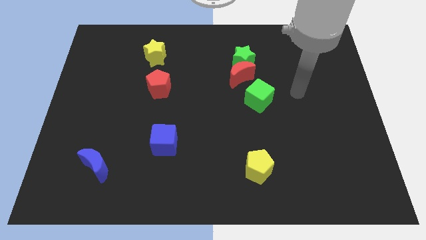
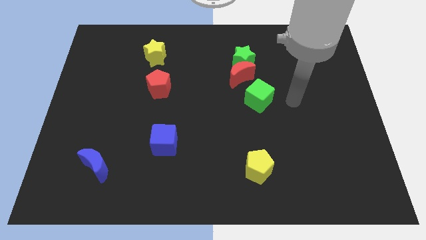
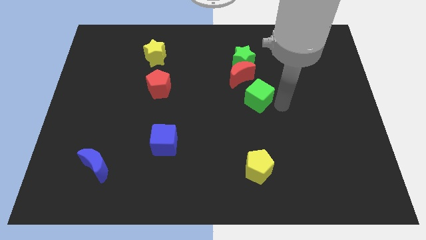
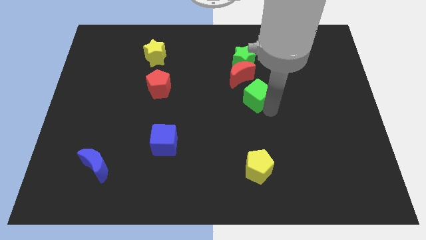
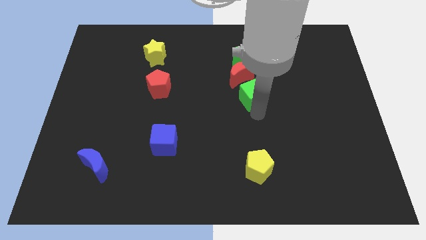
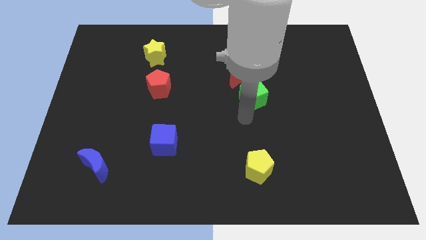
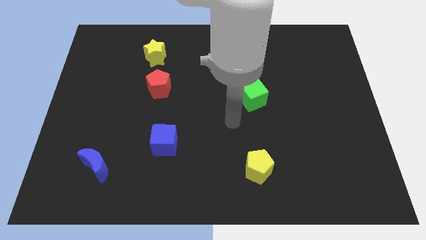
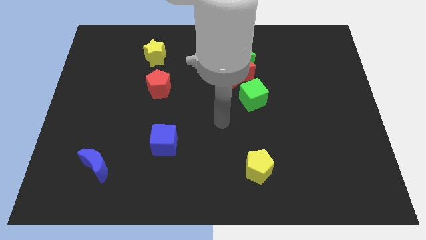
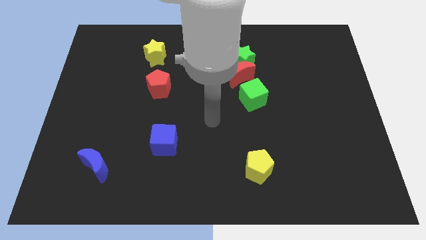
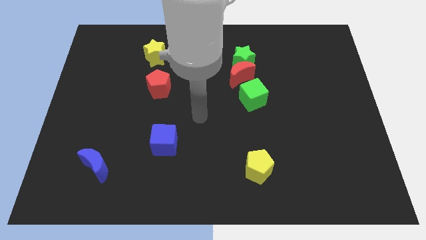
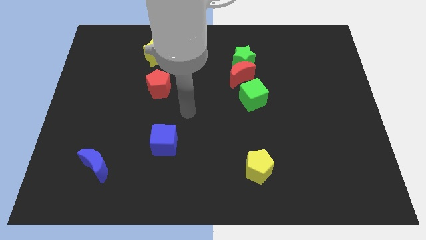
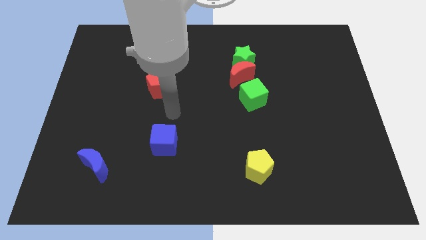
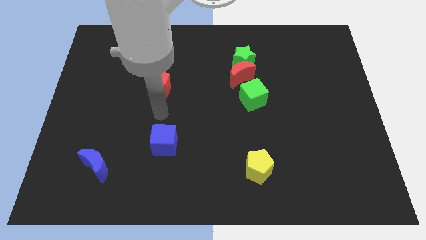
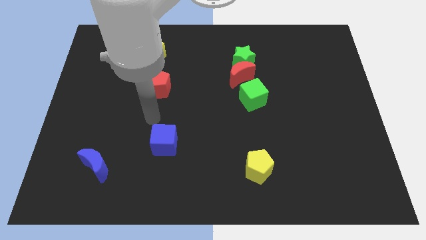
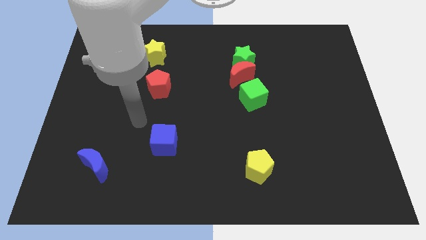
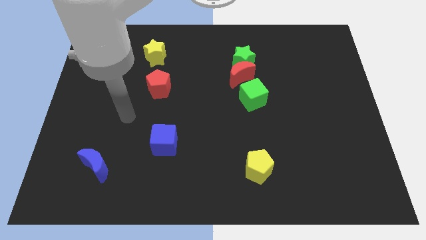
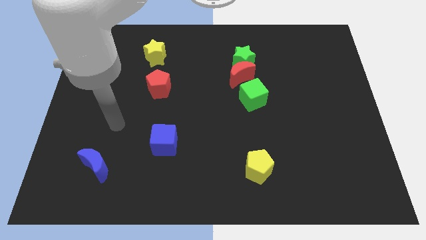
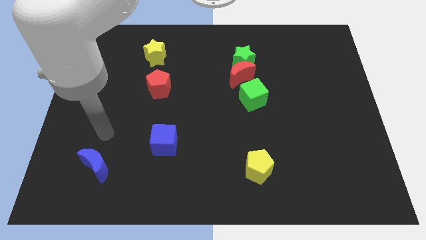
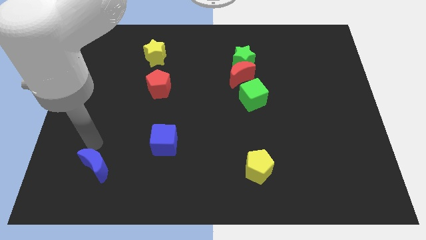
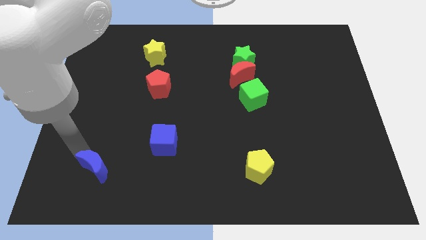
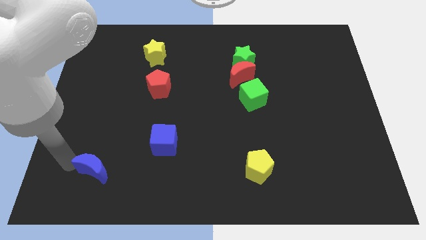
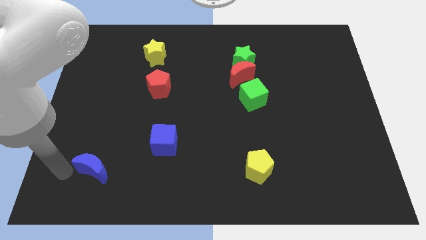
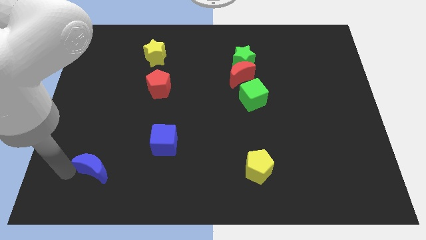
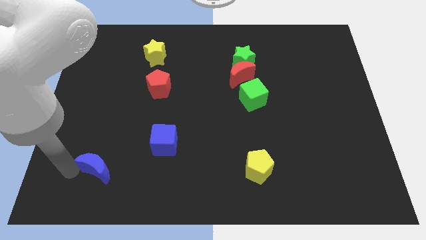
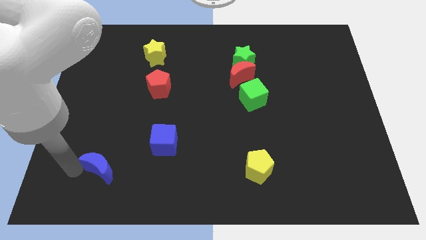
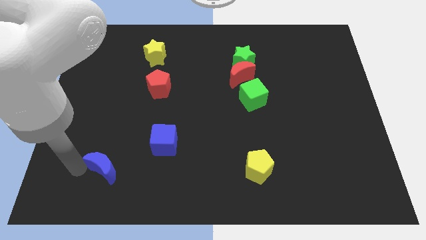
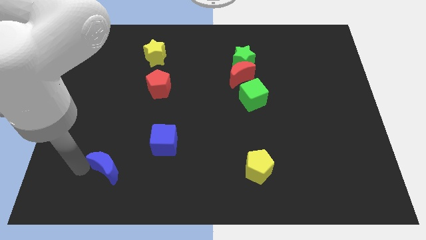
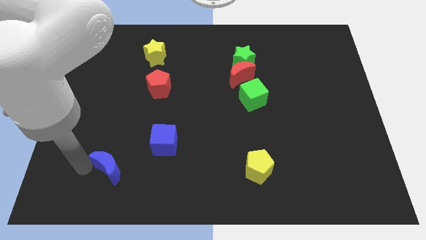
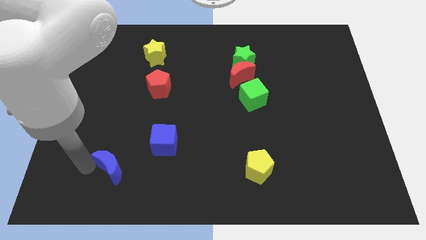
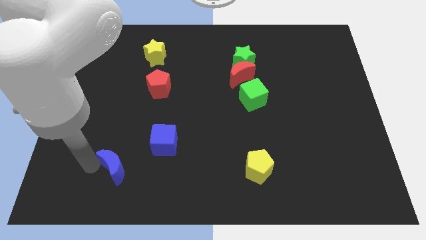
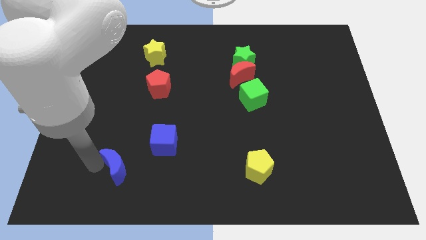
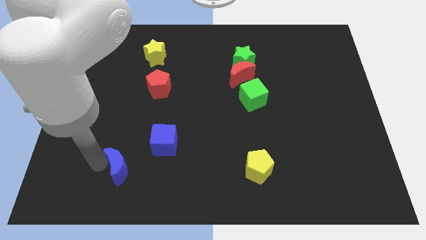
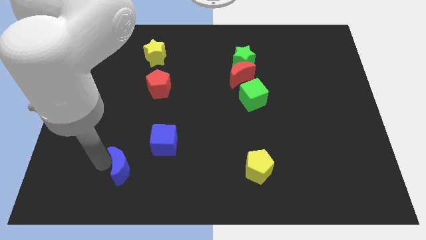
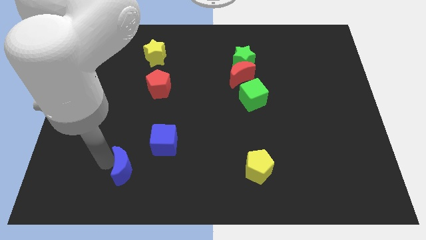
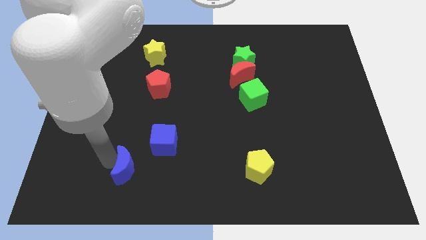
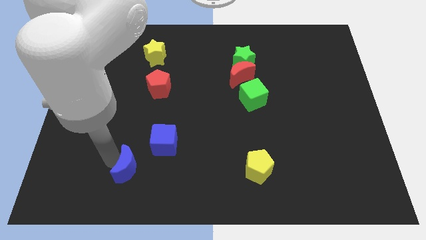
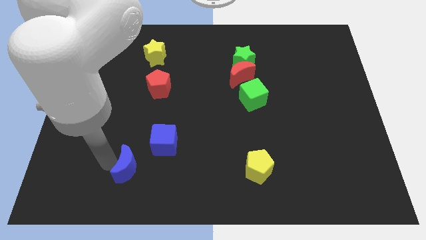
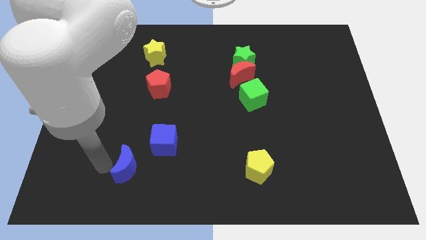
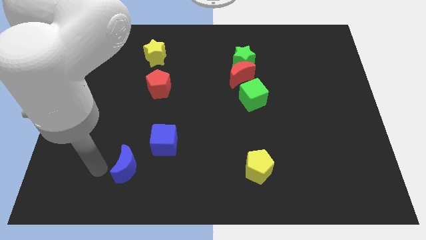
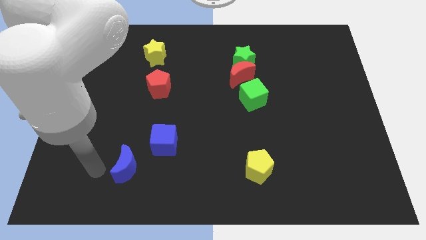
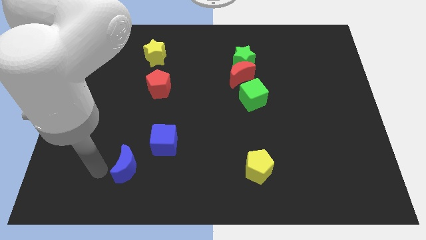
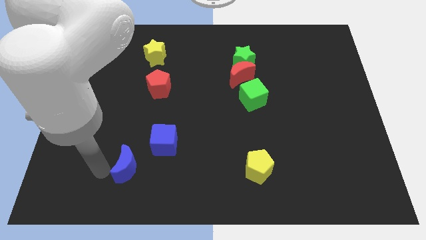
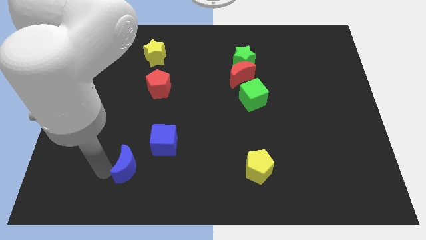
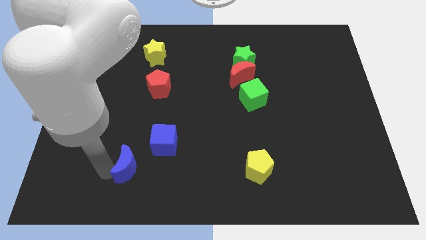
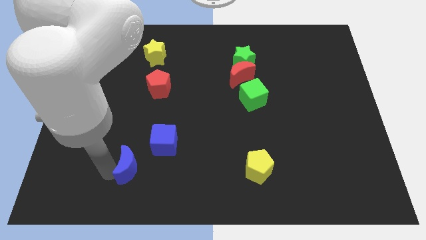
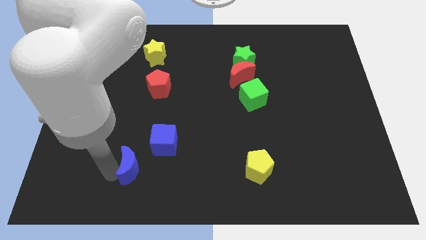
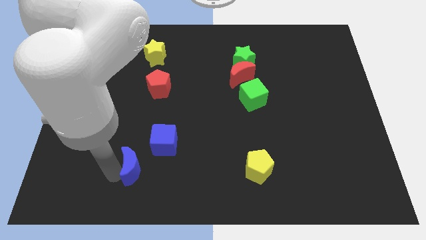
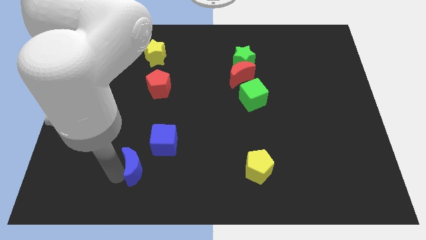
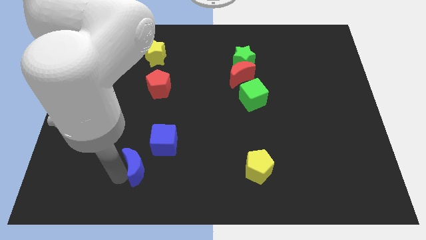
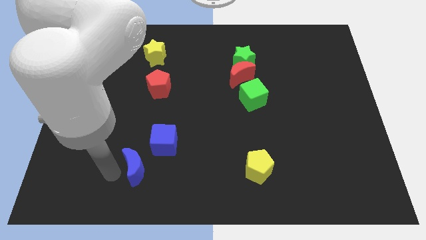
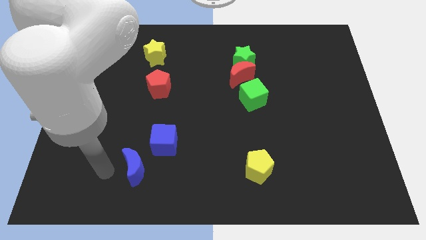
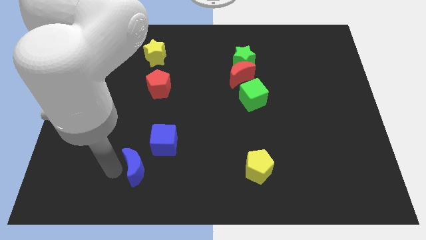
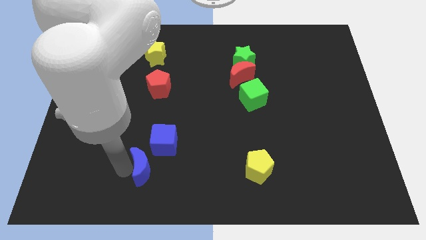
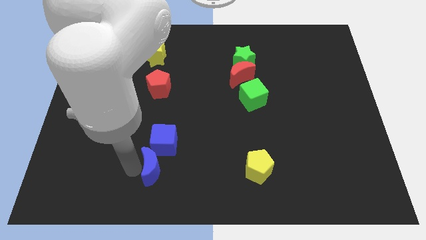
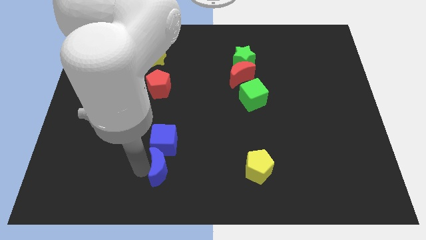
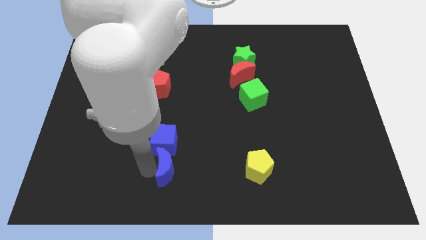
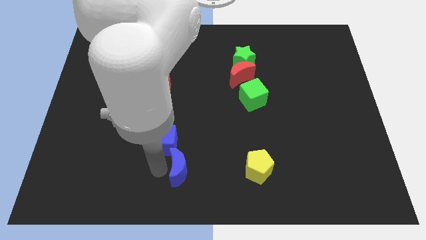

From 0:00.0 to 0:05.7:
push the blue moon to the left side of the yellow pentagon

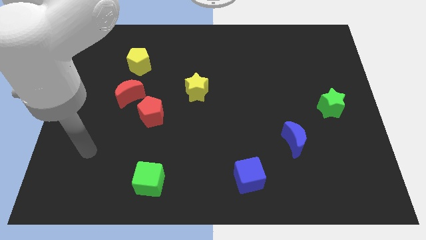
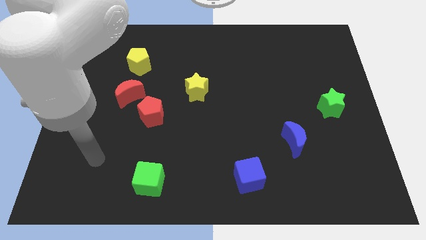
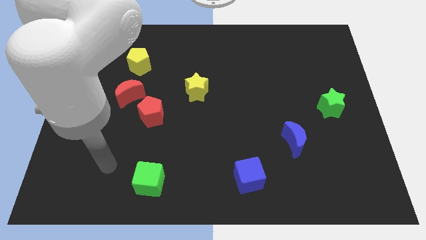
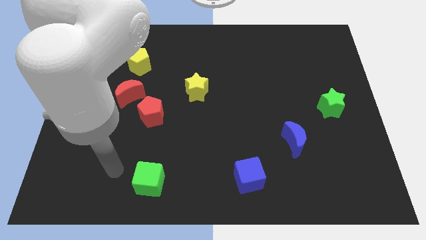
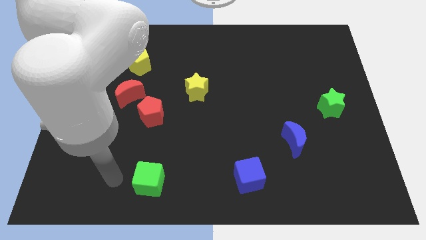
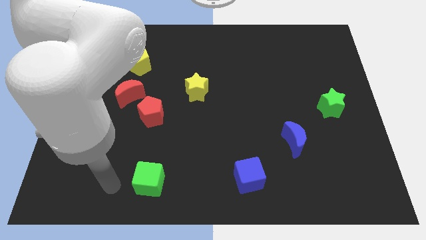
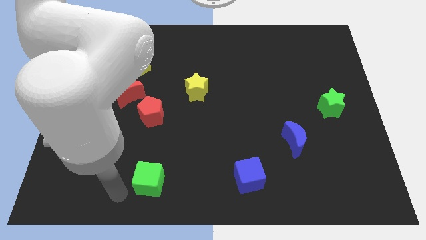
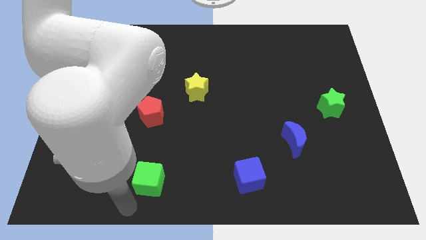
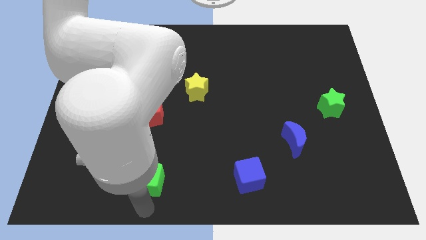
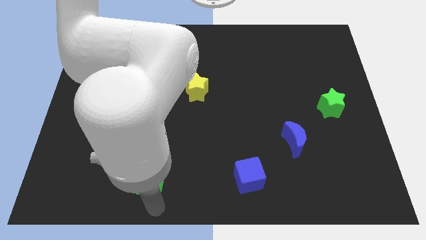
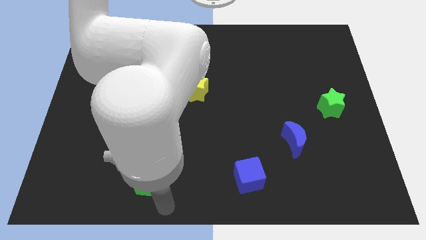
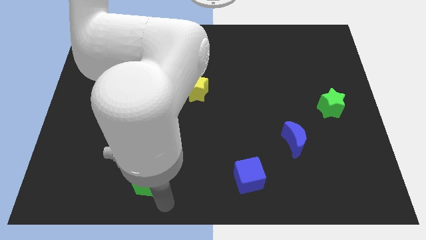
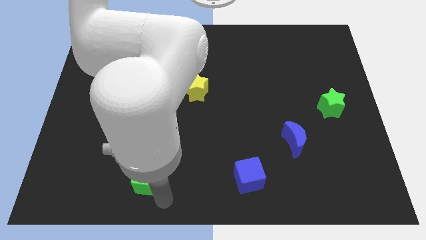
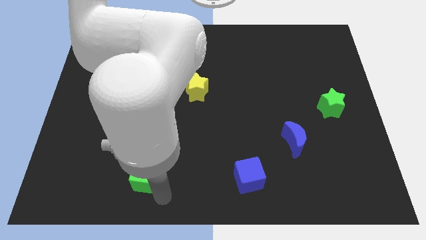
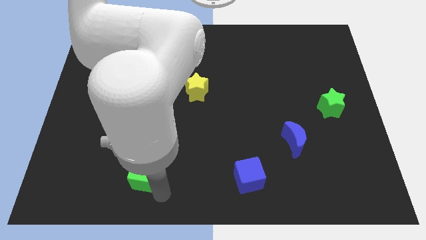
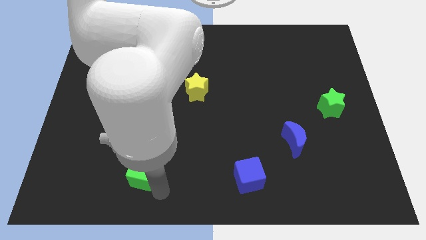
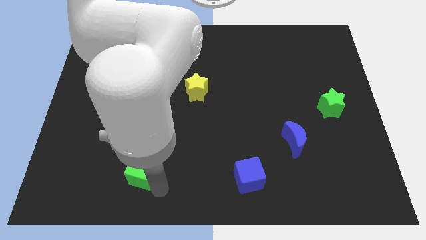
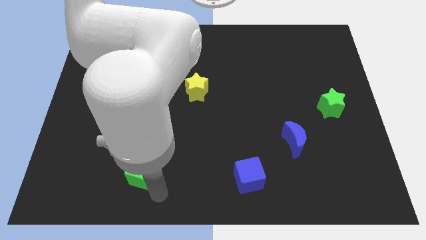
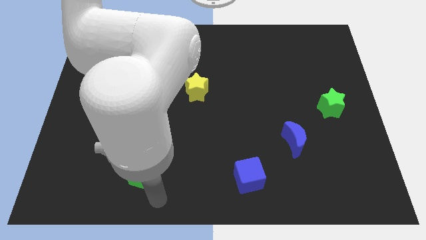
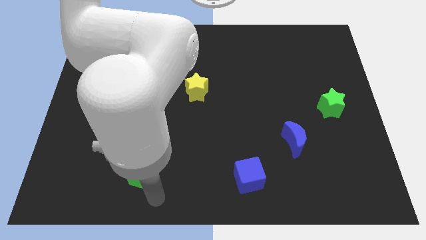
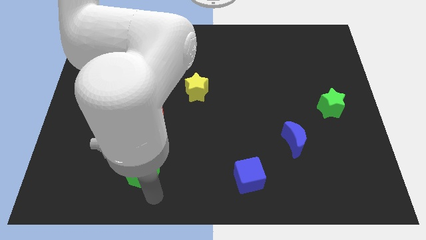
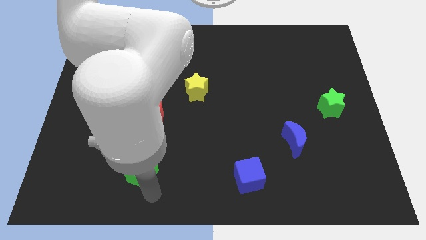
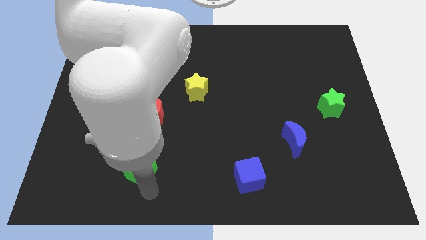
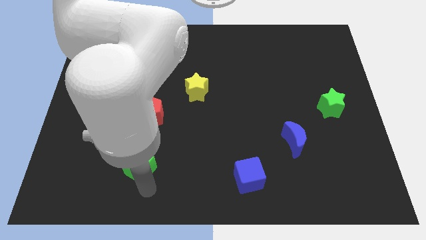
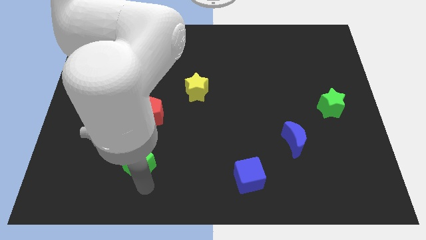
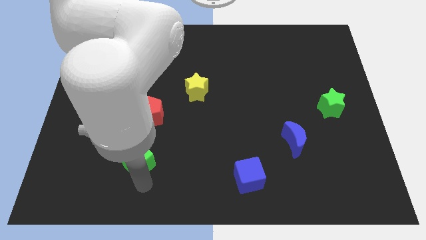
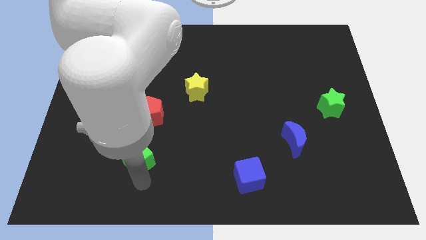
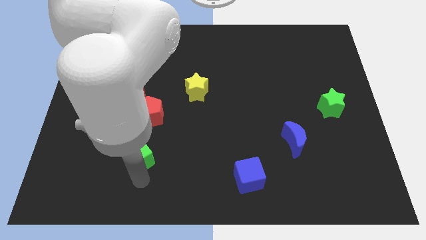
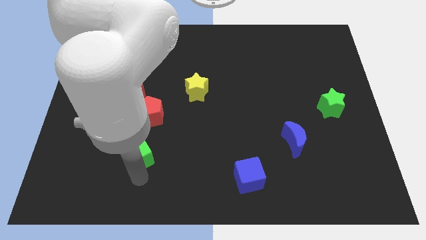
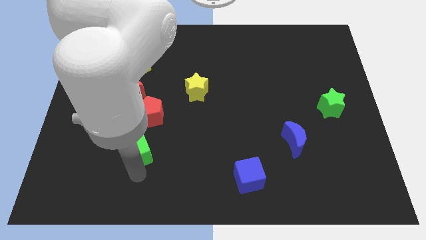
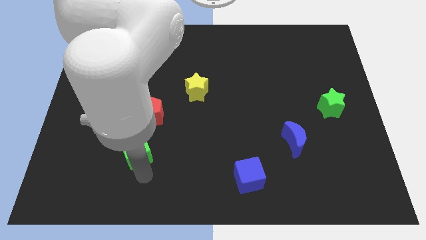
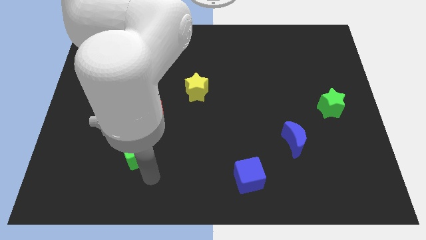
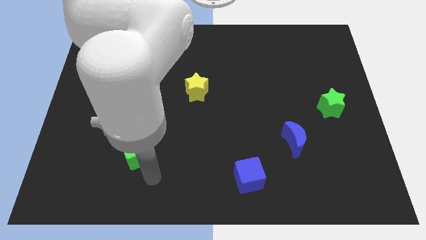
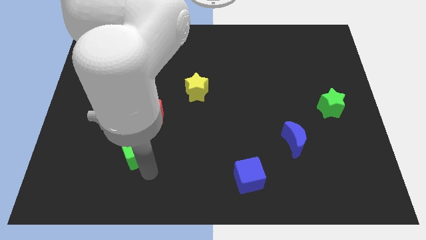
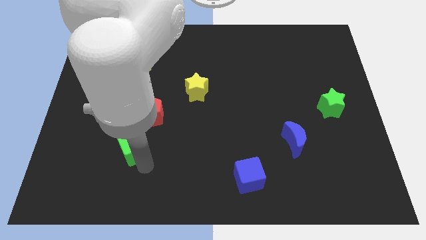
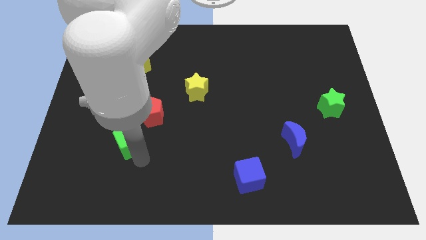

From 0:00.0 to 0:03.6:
slide the green cube to the bottom side of the red moon
